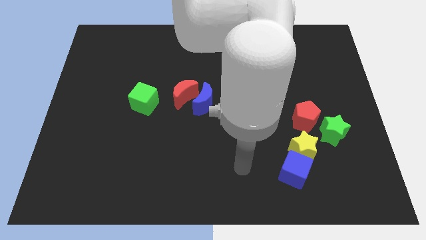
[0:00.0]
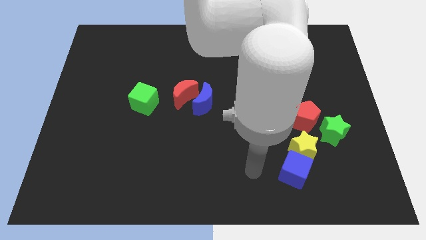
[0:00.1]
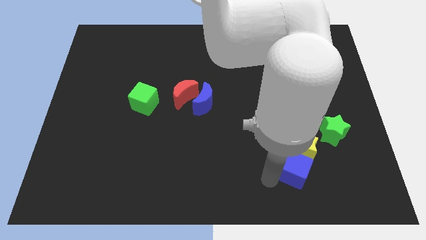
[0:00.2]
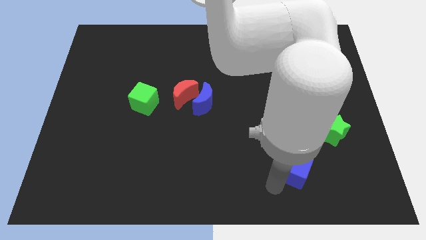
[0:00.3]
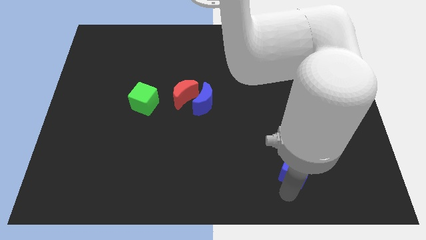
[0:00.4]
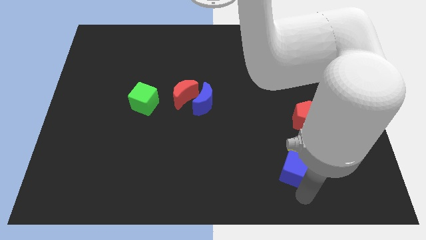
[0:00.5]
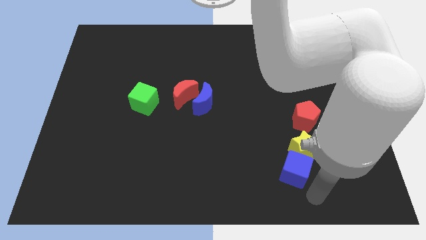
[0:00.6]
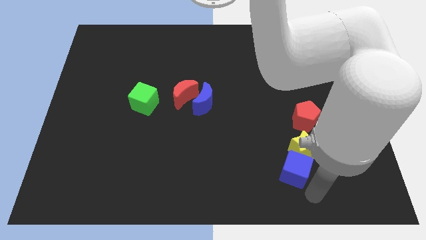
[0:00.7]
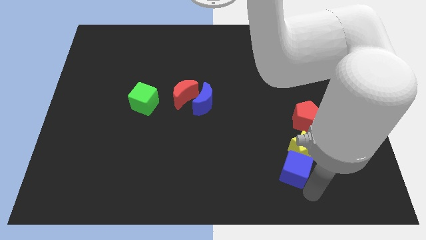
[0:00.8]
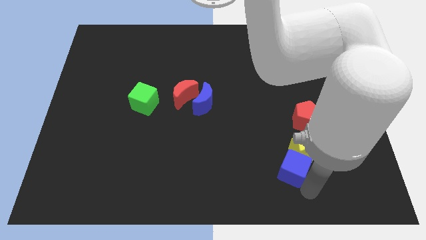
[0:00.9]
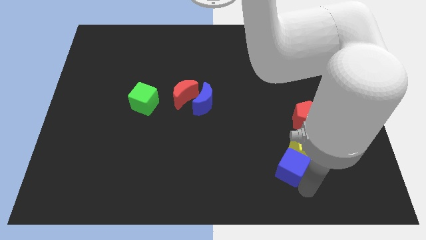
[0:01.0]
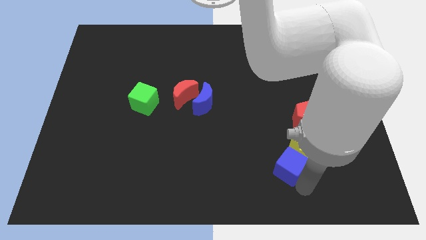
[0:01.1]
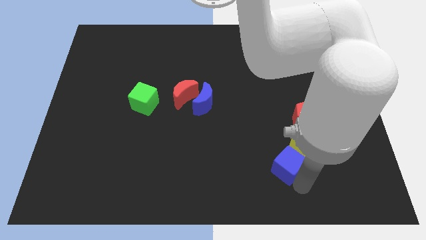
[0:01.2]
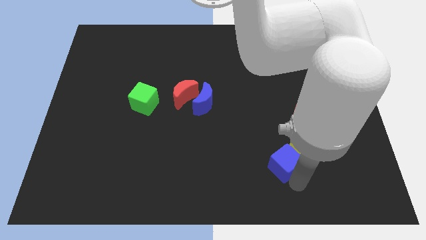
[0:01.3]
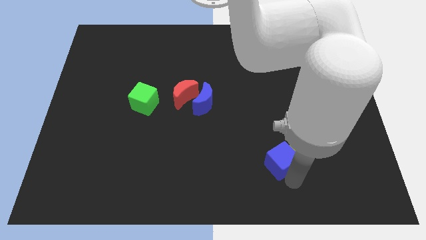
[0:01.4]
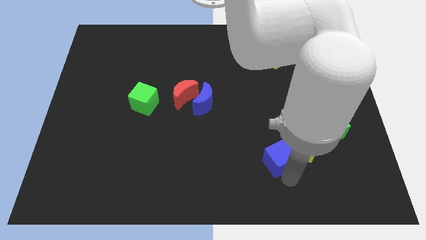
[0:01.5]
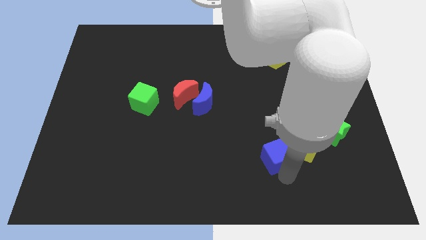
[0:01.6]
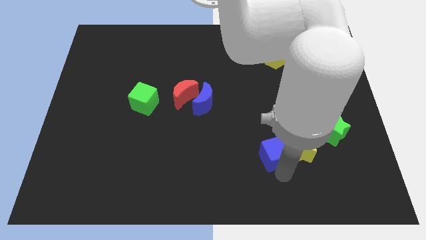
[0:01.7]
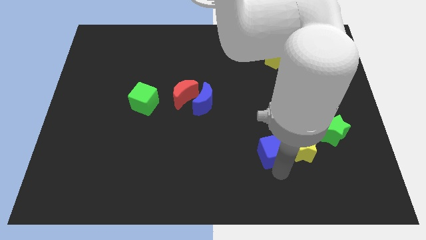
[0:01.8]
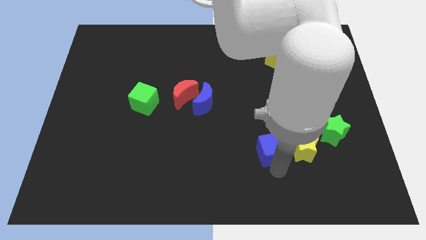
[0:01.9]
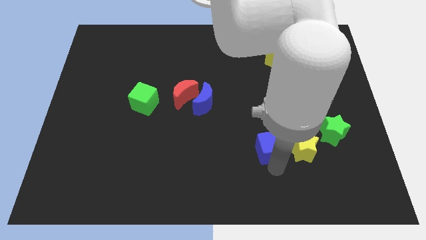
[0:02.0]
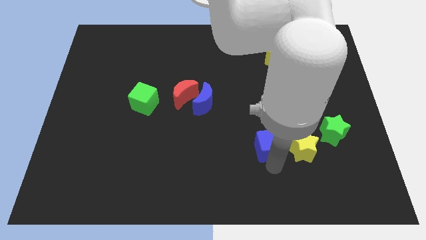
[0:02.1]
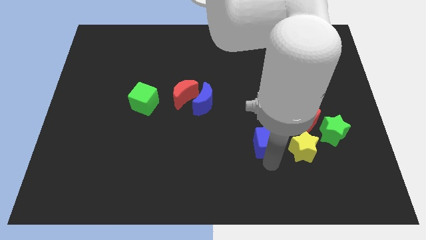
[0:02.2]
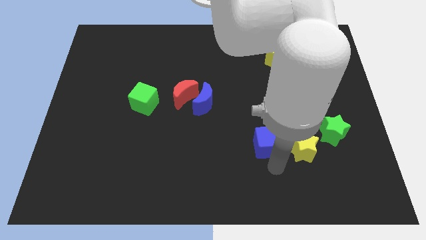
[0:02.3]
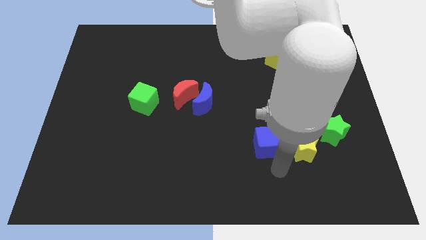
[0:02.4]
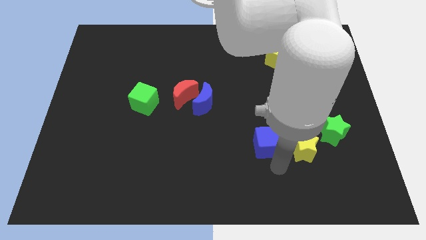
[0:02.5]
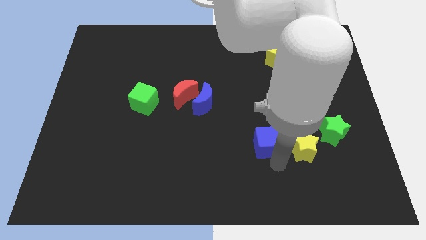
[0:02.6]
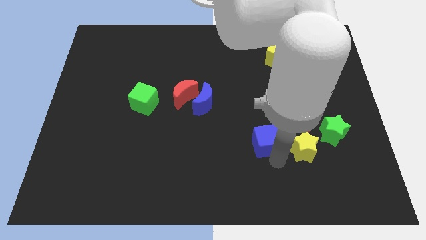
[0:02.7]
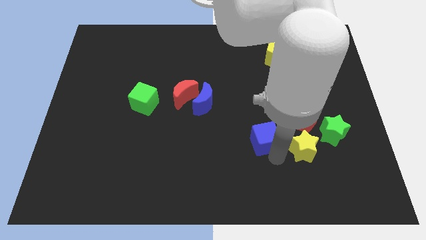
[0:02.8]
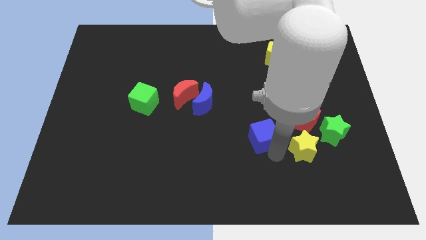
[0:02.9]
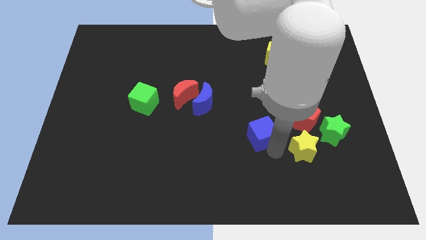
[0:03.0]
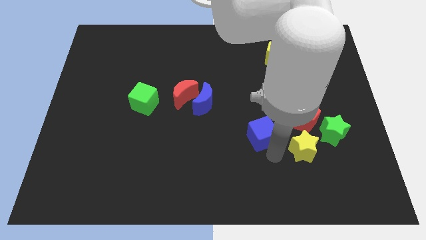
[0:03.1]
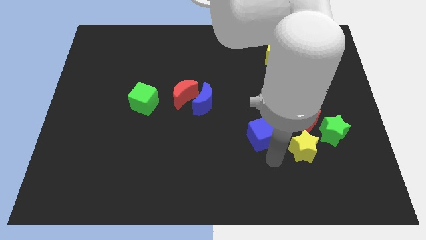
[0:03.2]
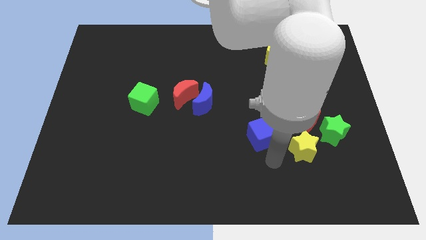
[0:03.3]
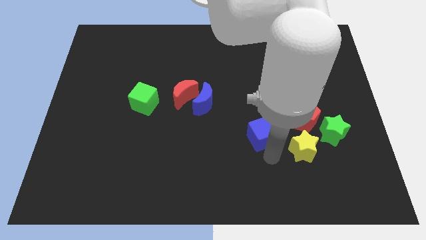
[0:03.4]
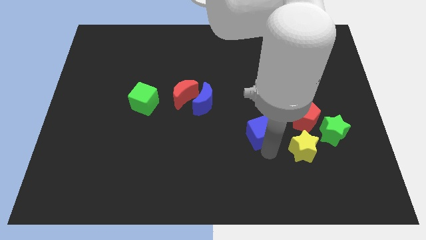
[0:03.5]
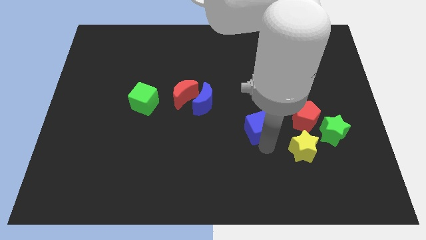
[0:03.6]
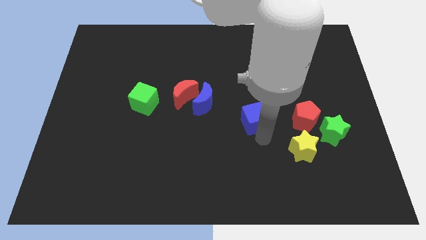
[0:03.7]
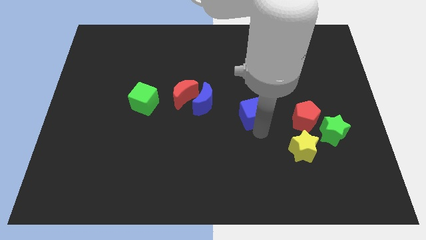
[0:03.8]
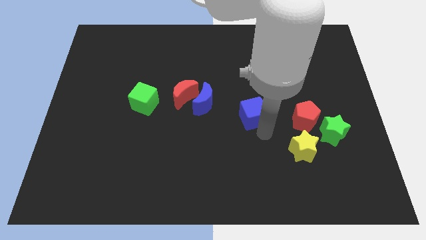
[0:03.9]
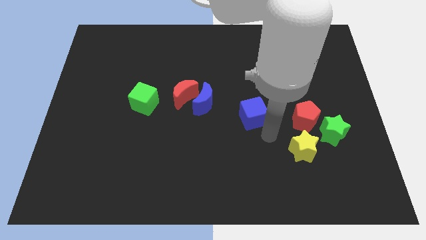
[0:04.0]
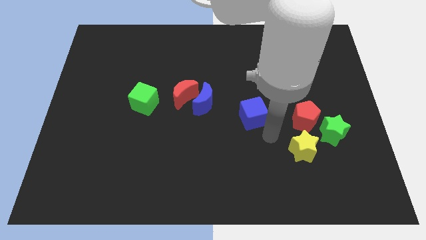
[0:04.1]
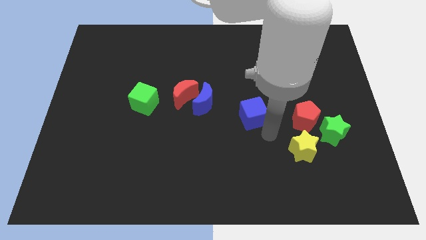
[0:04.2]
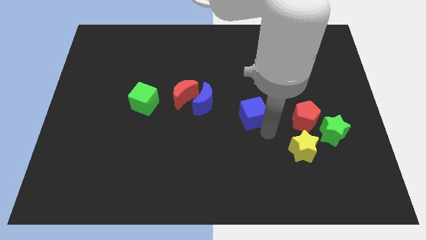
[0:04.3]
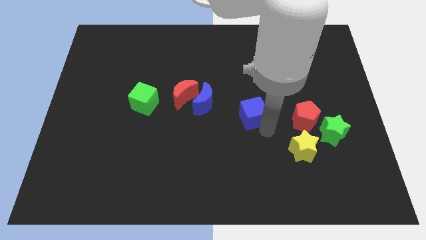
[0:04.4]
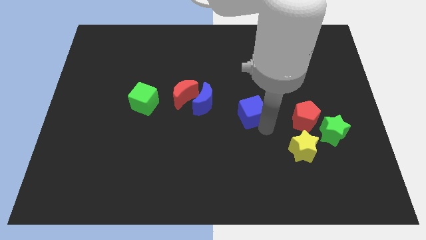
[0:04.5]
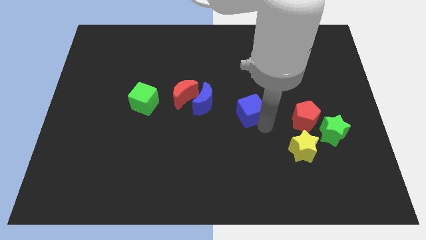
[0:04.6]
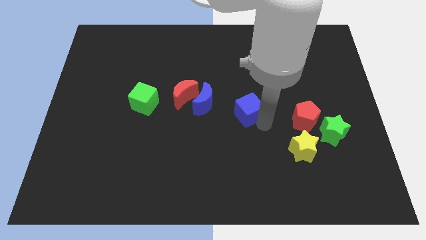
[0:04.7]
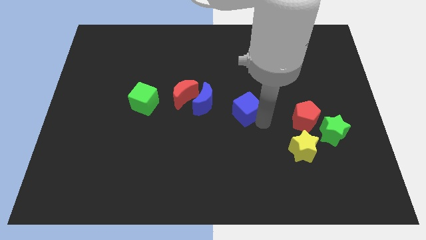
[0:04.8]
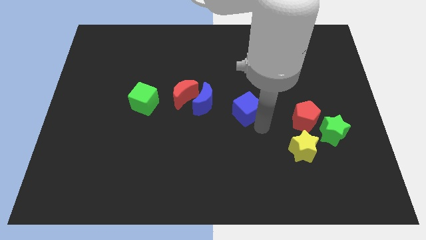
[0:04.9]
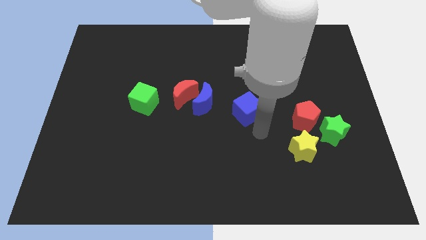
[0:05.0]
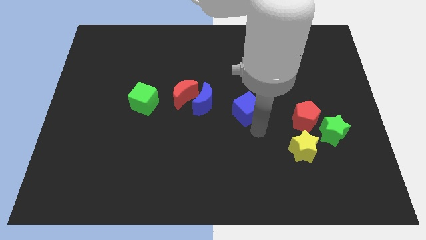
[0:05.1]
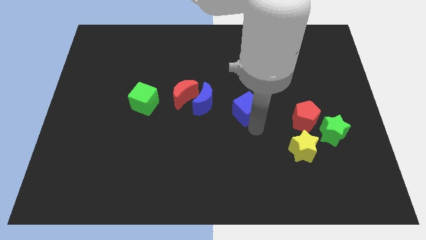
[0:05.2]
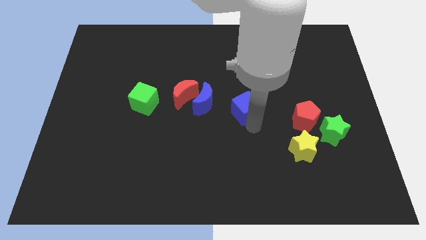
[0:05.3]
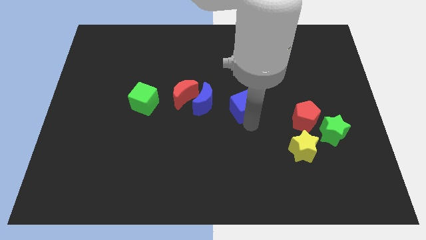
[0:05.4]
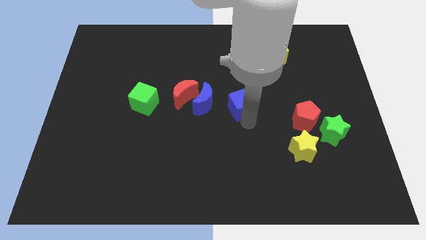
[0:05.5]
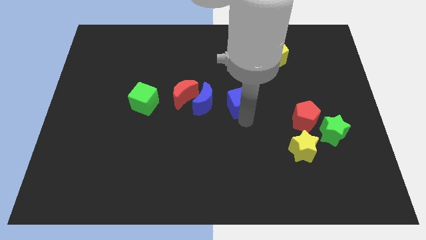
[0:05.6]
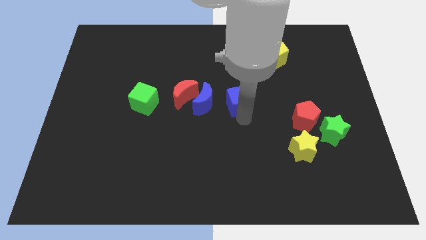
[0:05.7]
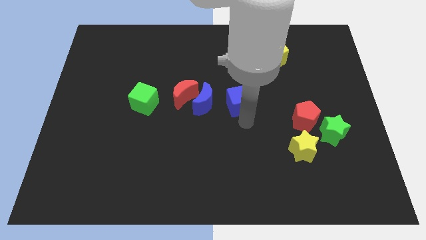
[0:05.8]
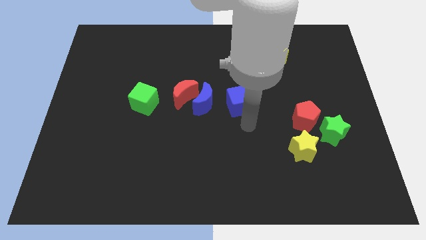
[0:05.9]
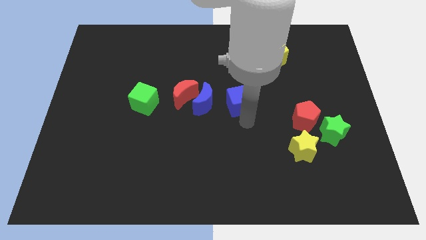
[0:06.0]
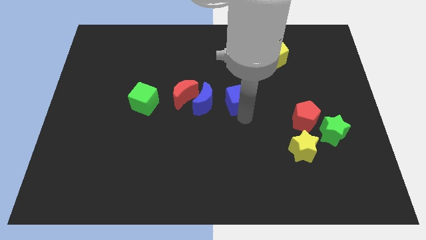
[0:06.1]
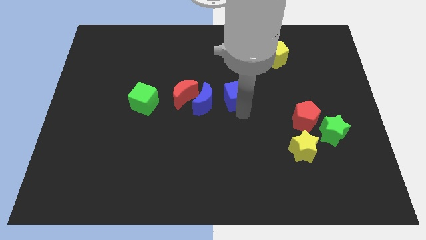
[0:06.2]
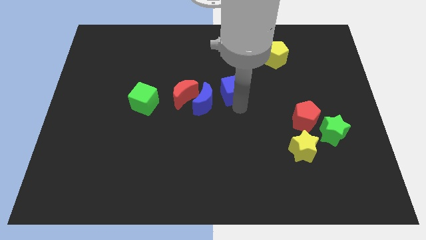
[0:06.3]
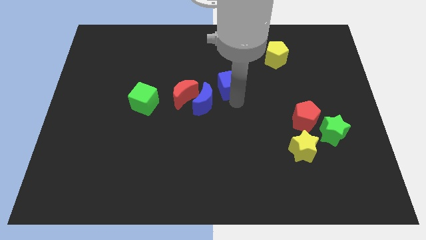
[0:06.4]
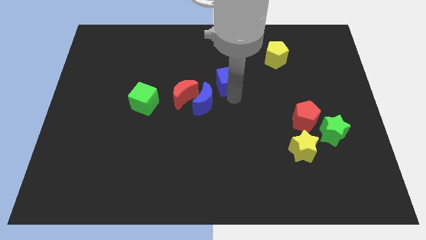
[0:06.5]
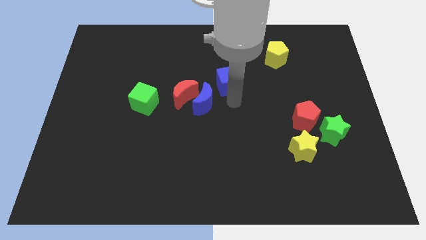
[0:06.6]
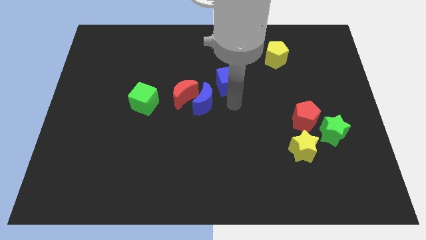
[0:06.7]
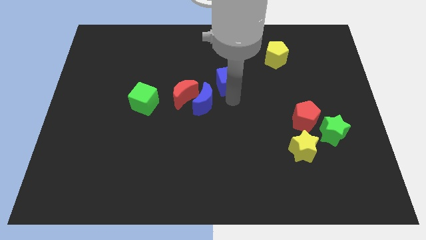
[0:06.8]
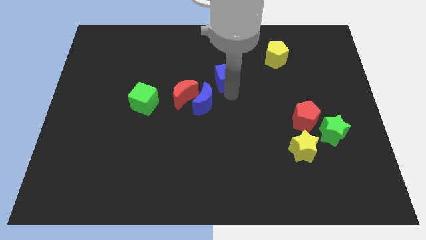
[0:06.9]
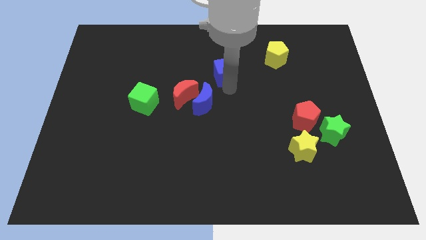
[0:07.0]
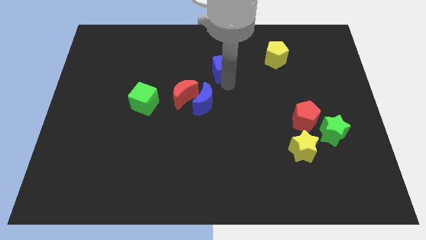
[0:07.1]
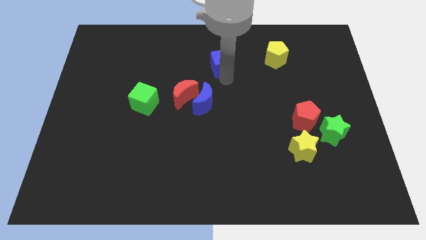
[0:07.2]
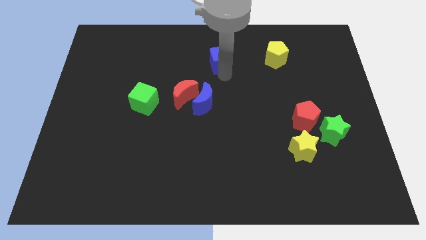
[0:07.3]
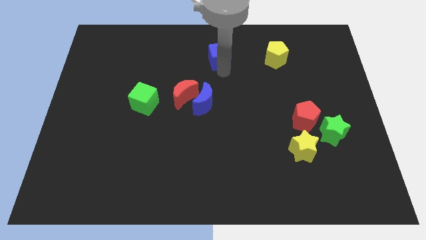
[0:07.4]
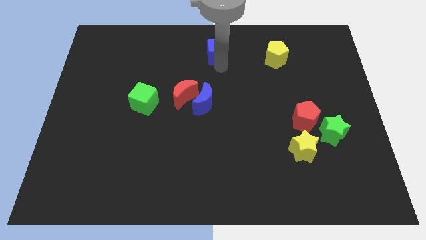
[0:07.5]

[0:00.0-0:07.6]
move the blue cube to the towards your base

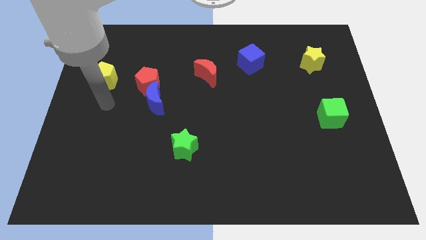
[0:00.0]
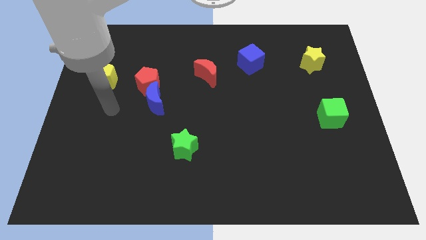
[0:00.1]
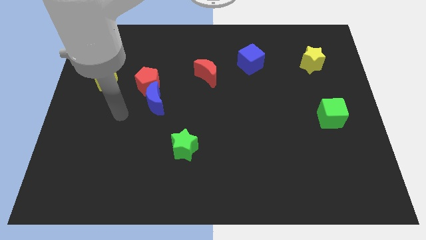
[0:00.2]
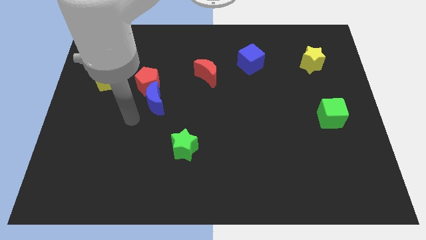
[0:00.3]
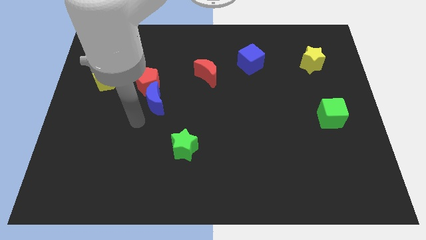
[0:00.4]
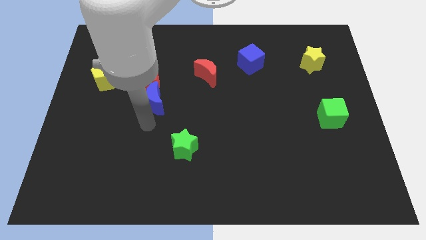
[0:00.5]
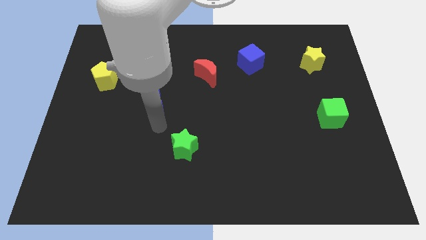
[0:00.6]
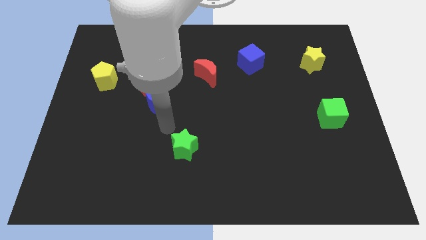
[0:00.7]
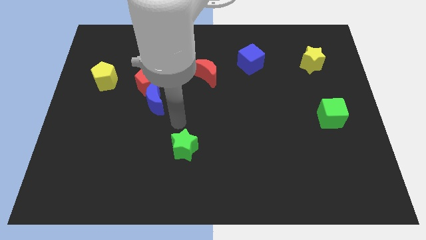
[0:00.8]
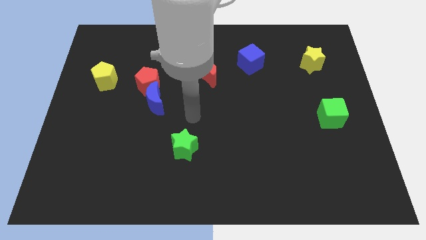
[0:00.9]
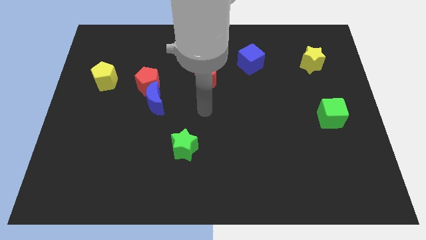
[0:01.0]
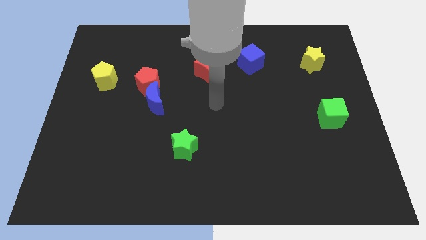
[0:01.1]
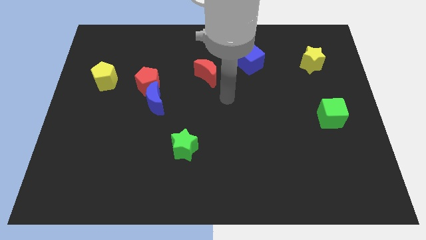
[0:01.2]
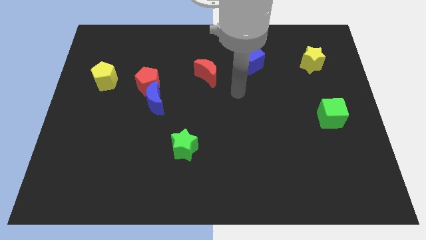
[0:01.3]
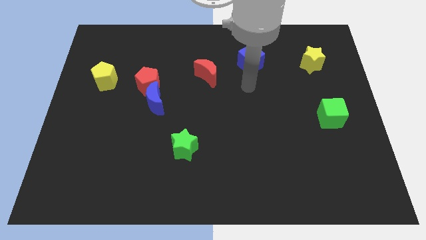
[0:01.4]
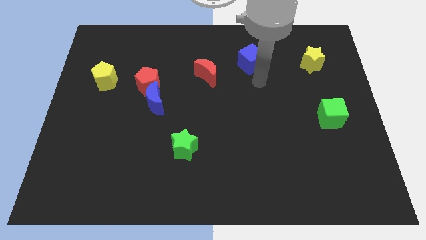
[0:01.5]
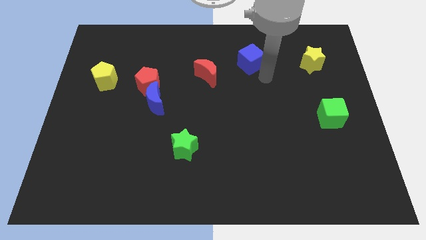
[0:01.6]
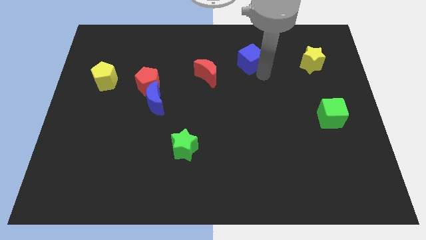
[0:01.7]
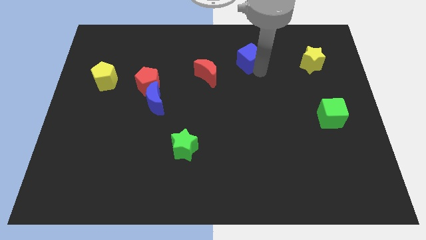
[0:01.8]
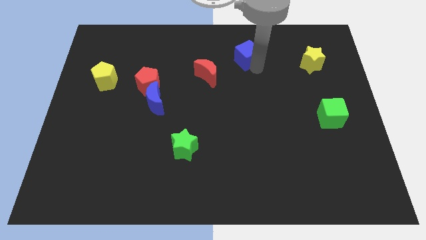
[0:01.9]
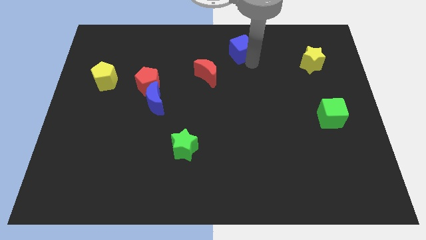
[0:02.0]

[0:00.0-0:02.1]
move the blue cube to the top side
